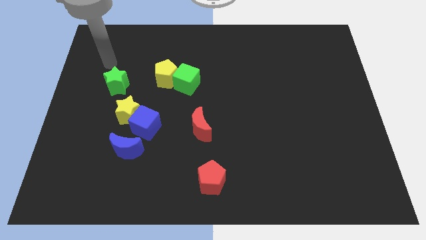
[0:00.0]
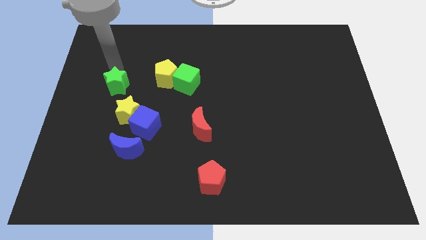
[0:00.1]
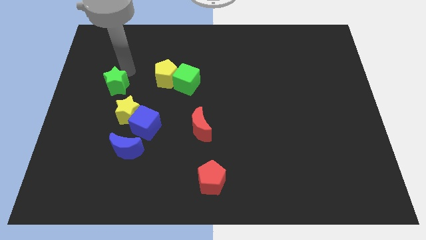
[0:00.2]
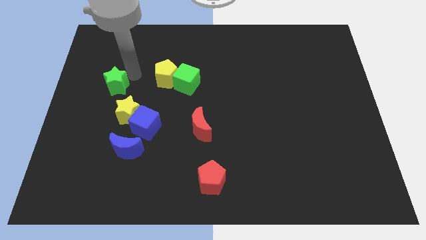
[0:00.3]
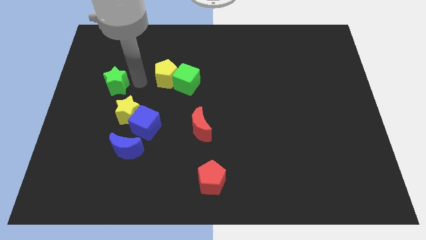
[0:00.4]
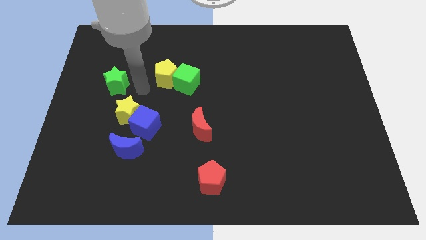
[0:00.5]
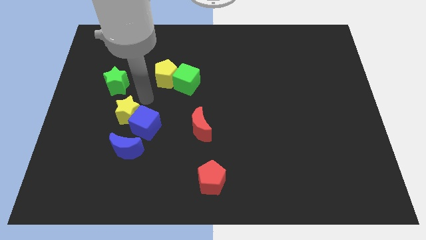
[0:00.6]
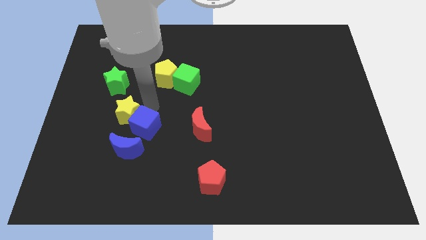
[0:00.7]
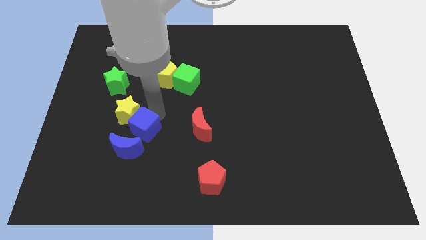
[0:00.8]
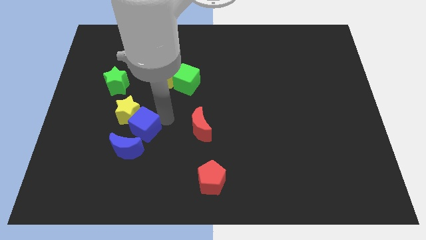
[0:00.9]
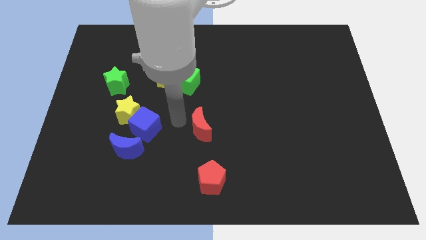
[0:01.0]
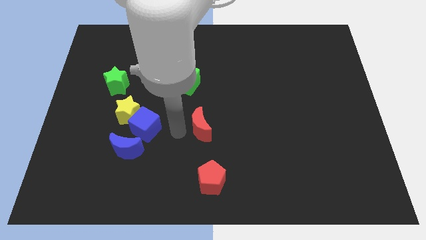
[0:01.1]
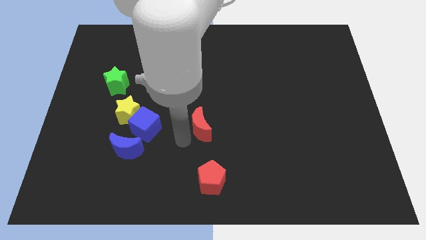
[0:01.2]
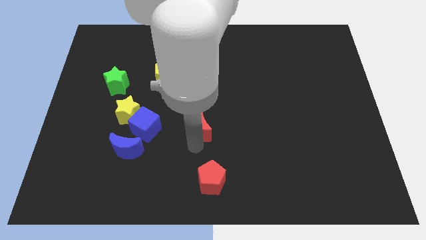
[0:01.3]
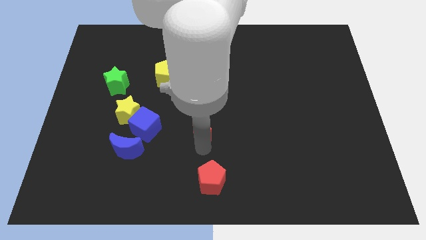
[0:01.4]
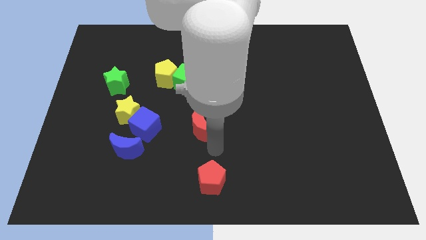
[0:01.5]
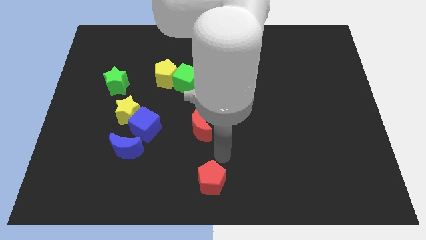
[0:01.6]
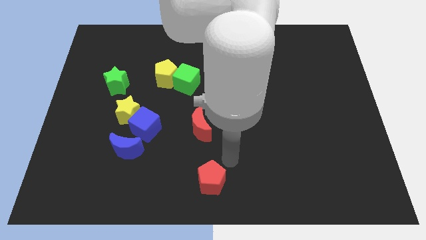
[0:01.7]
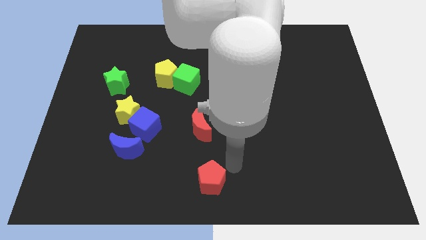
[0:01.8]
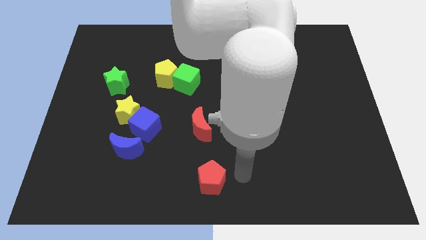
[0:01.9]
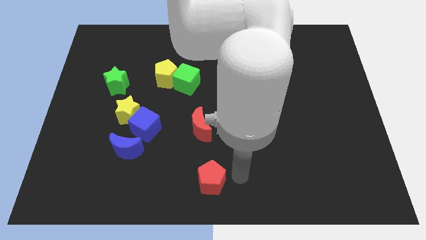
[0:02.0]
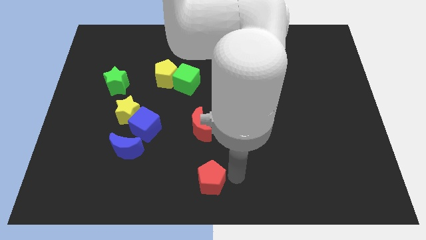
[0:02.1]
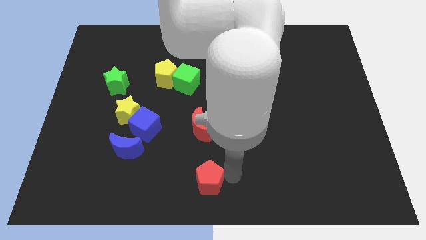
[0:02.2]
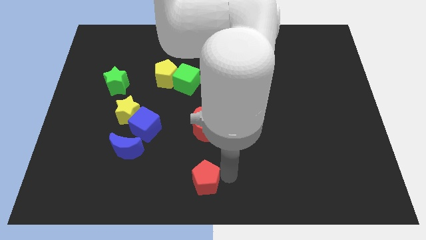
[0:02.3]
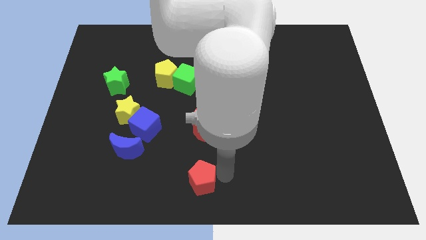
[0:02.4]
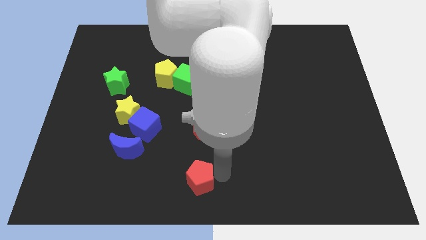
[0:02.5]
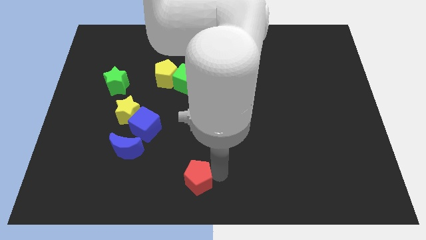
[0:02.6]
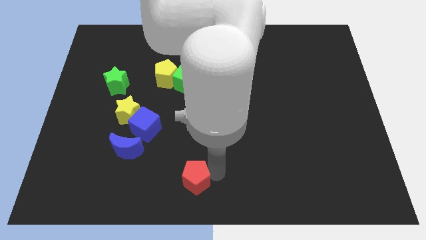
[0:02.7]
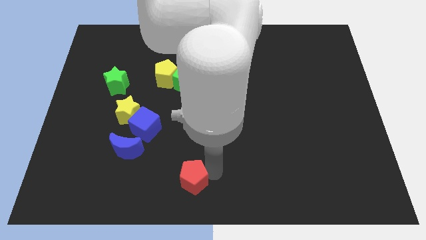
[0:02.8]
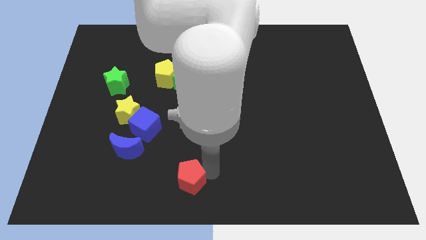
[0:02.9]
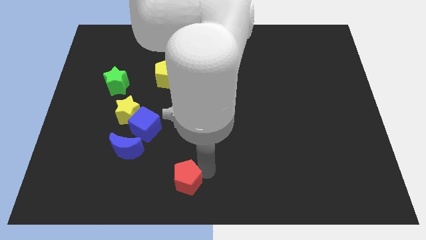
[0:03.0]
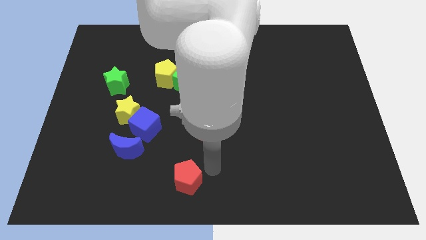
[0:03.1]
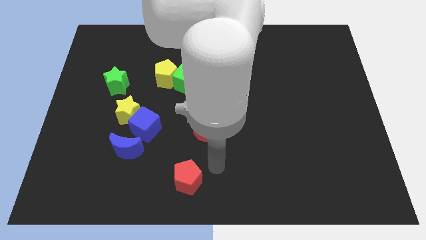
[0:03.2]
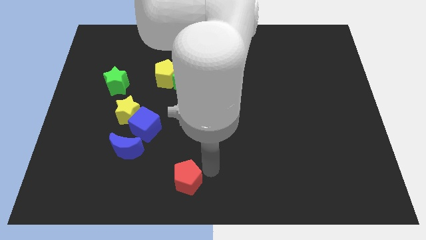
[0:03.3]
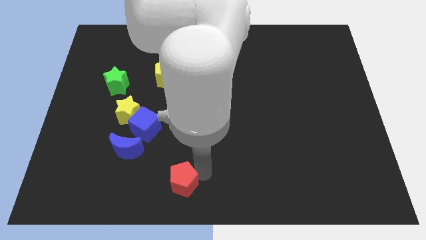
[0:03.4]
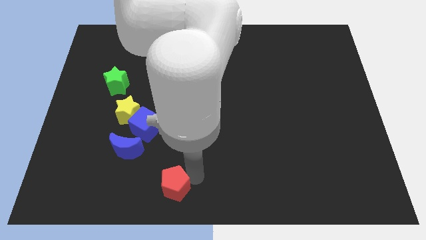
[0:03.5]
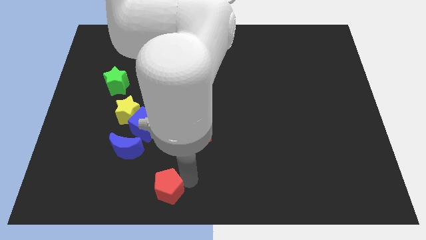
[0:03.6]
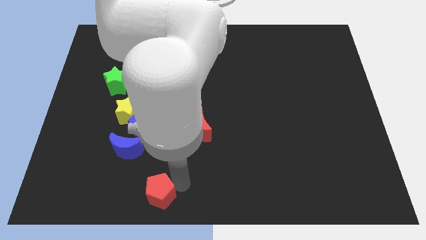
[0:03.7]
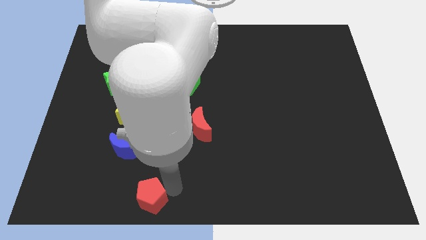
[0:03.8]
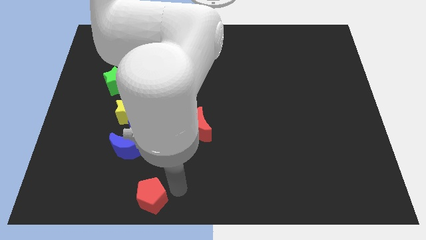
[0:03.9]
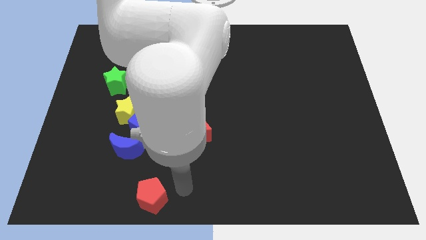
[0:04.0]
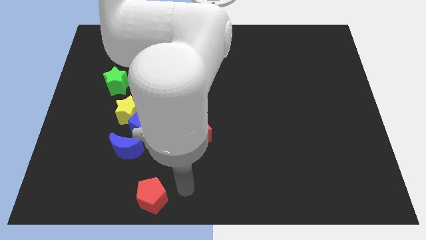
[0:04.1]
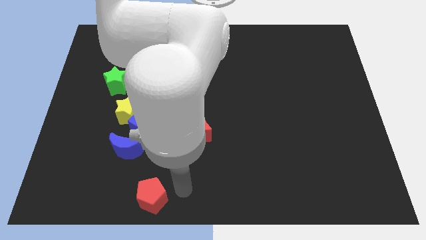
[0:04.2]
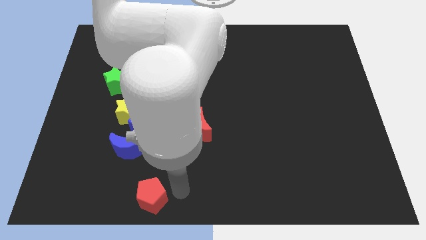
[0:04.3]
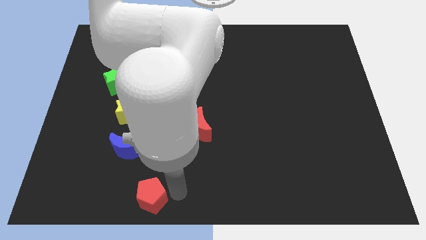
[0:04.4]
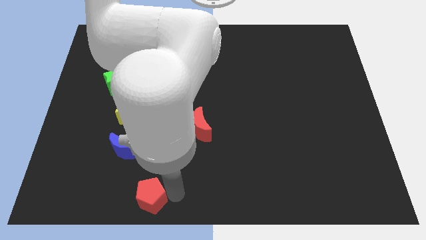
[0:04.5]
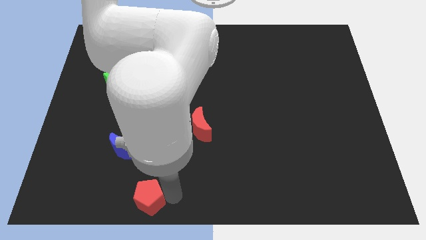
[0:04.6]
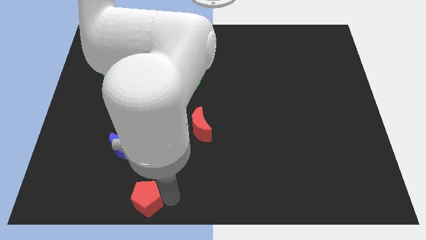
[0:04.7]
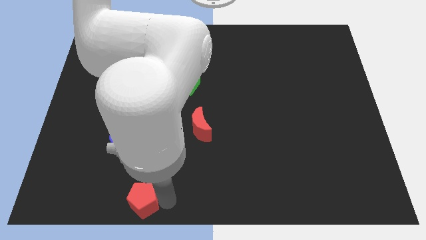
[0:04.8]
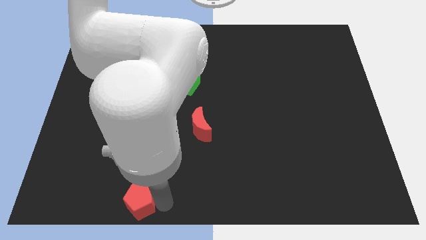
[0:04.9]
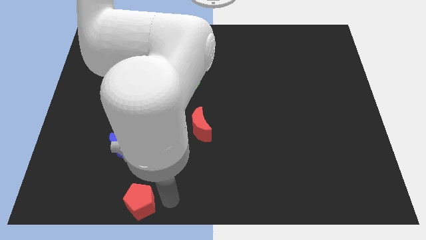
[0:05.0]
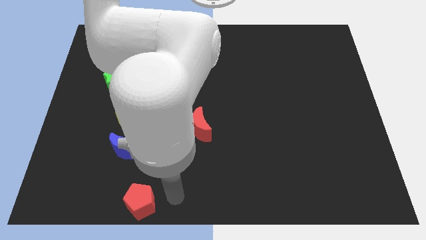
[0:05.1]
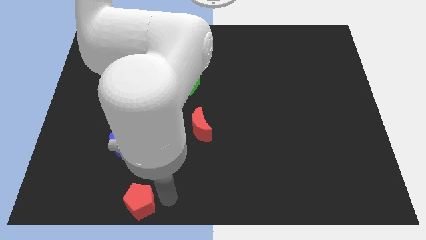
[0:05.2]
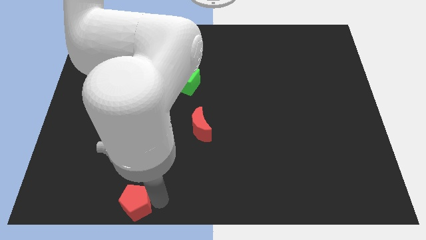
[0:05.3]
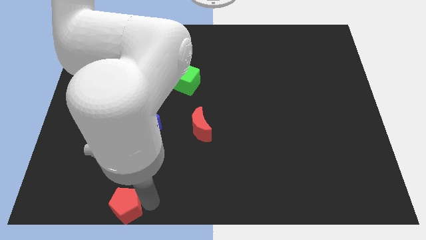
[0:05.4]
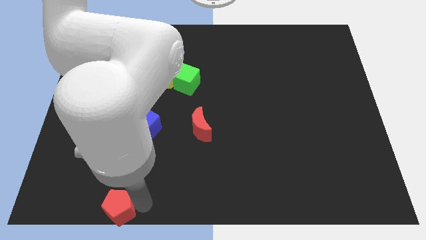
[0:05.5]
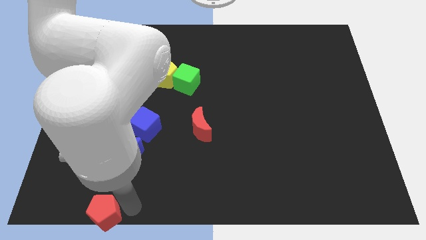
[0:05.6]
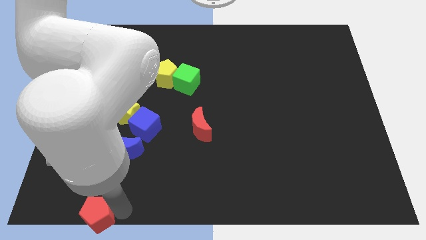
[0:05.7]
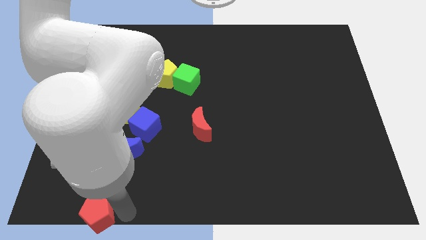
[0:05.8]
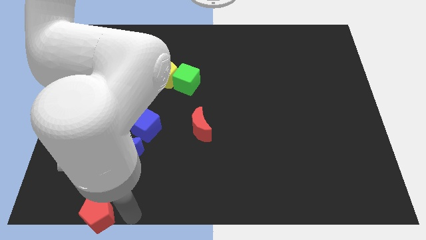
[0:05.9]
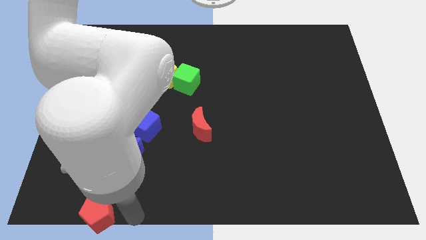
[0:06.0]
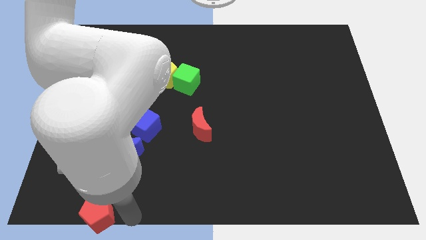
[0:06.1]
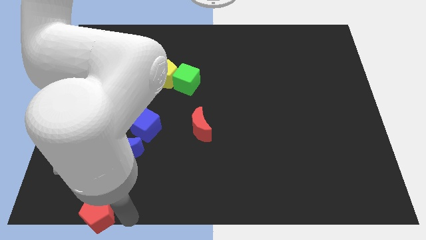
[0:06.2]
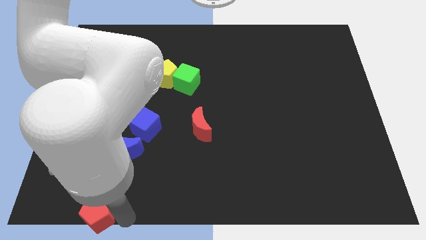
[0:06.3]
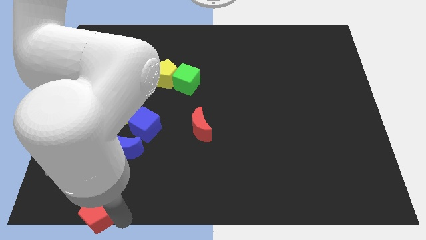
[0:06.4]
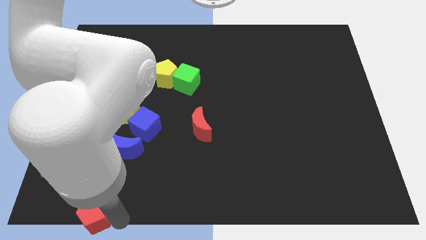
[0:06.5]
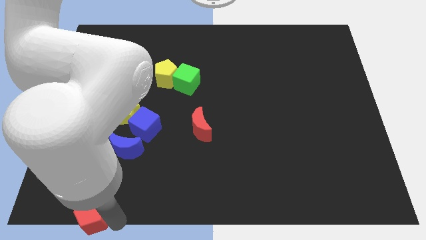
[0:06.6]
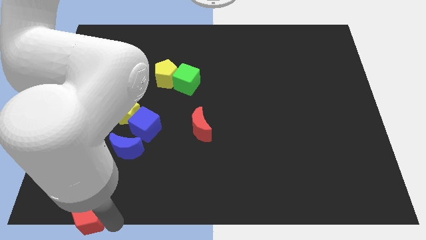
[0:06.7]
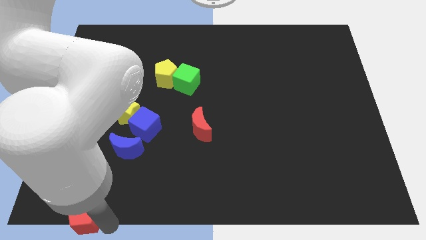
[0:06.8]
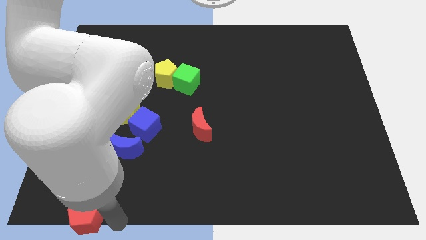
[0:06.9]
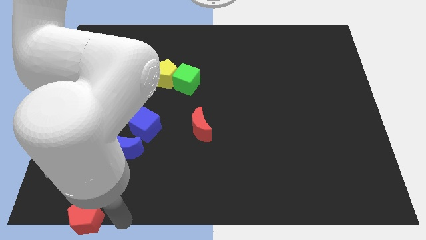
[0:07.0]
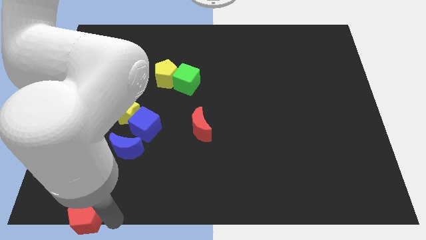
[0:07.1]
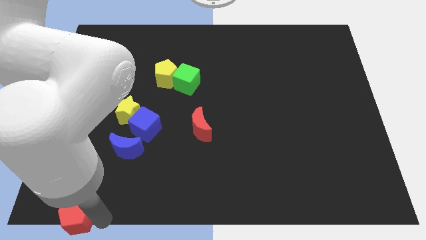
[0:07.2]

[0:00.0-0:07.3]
slide the red pentagon to the bottom left corner
